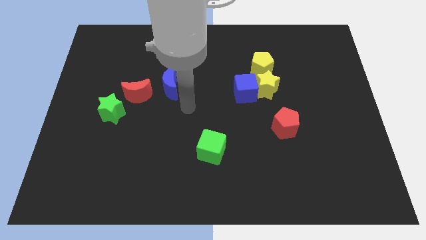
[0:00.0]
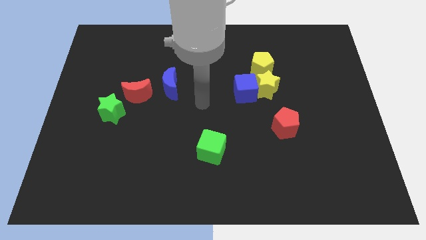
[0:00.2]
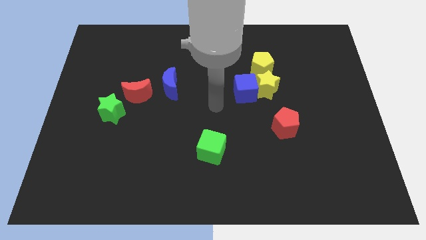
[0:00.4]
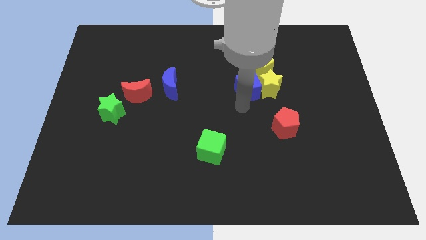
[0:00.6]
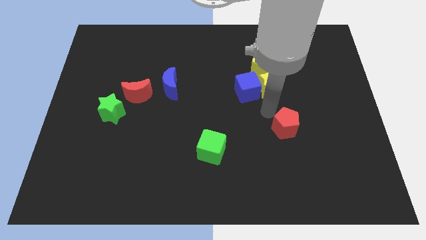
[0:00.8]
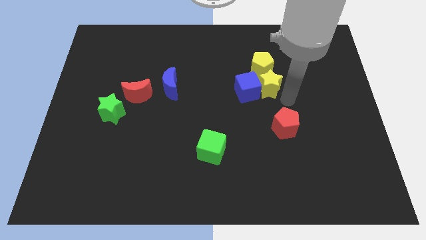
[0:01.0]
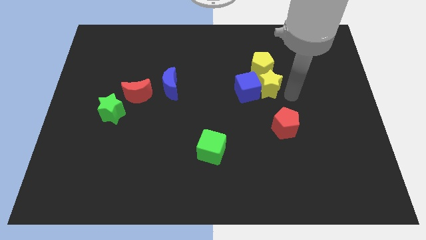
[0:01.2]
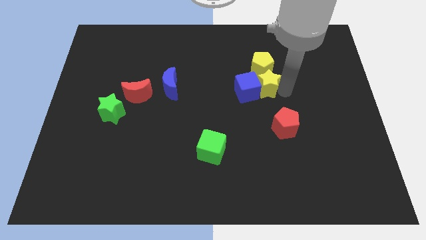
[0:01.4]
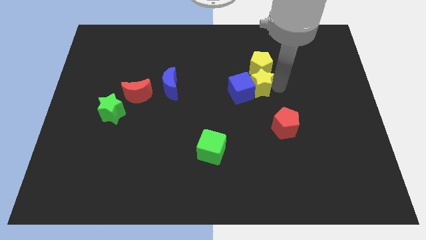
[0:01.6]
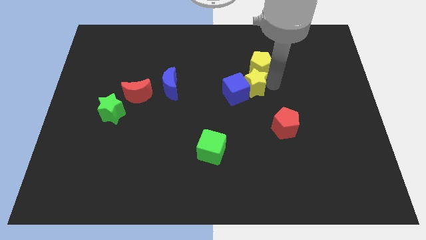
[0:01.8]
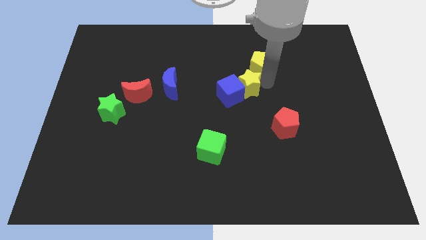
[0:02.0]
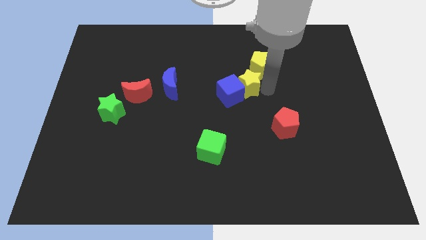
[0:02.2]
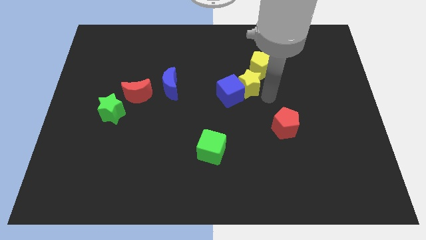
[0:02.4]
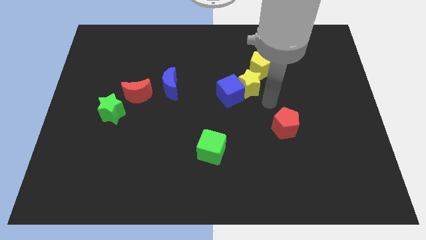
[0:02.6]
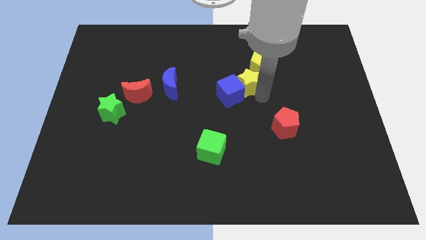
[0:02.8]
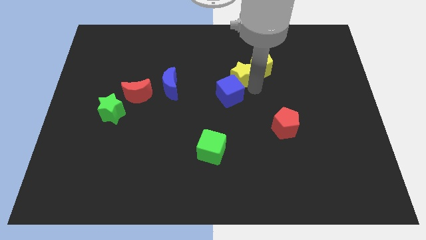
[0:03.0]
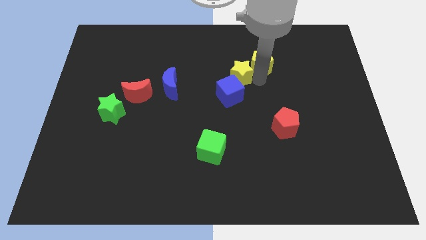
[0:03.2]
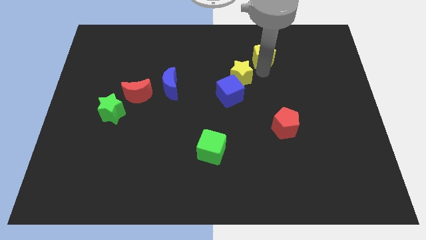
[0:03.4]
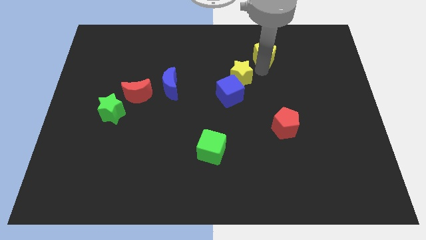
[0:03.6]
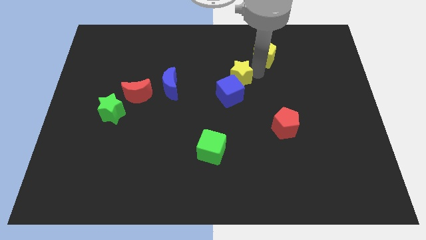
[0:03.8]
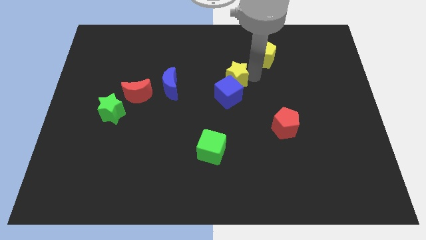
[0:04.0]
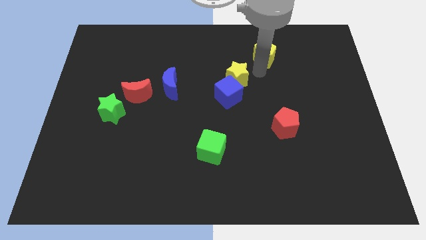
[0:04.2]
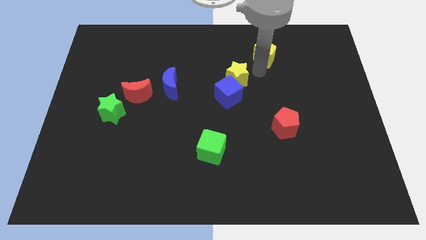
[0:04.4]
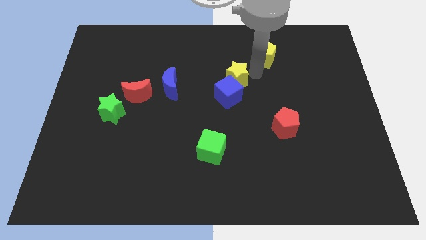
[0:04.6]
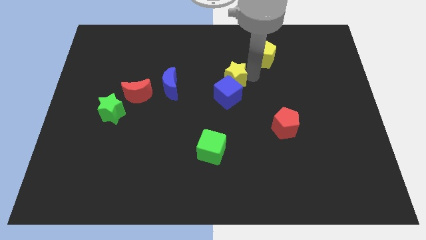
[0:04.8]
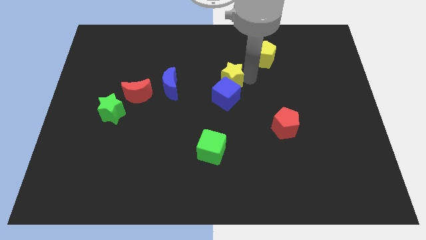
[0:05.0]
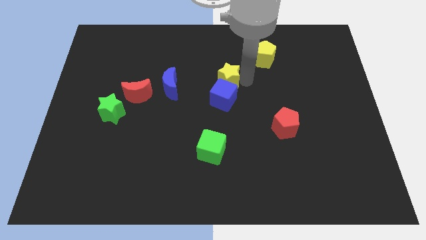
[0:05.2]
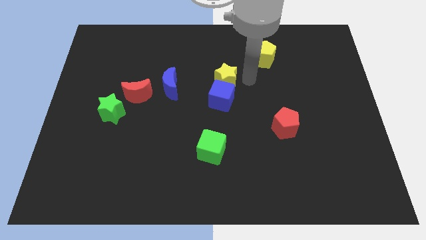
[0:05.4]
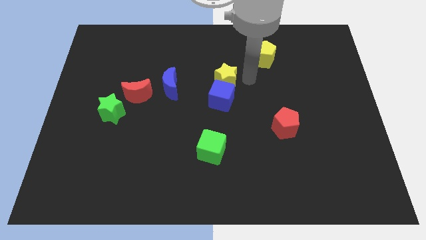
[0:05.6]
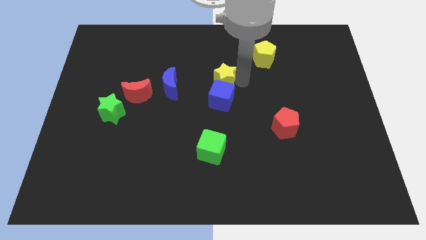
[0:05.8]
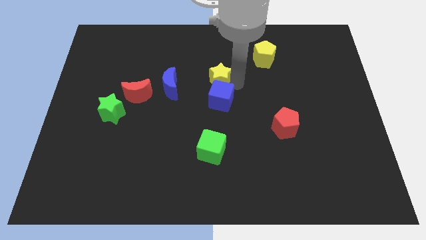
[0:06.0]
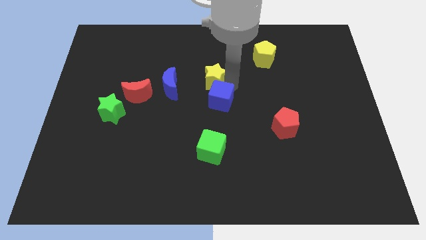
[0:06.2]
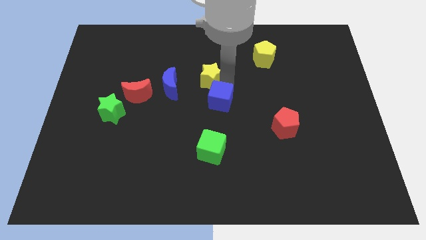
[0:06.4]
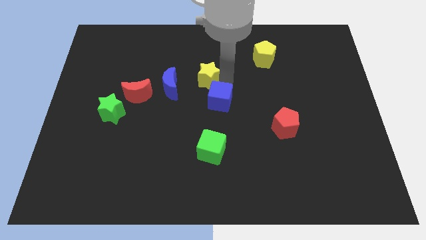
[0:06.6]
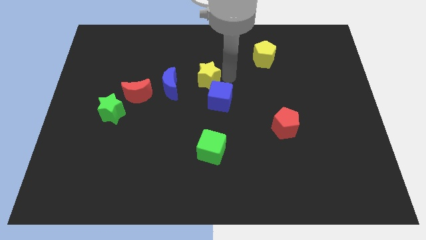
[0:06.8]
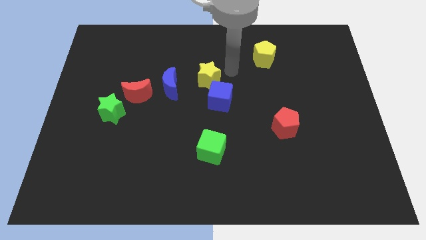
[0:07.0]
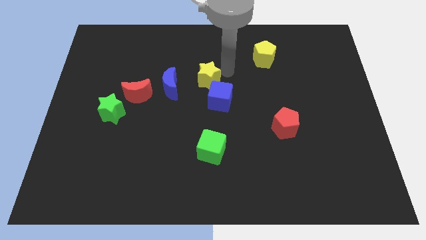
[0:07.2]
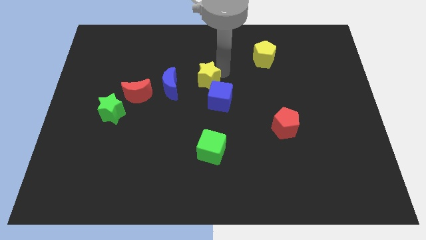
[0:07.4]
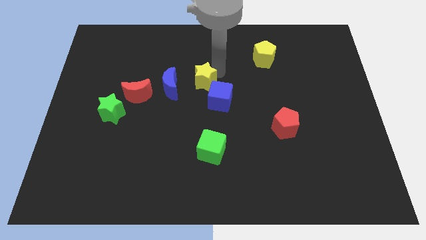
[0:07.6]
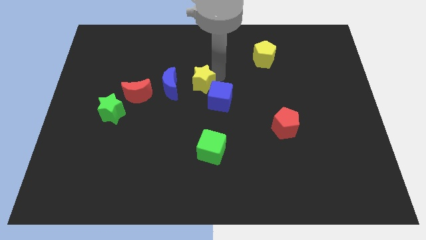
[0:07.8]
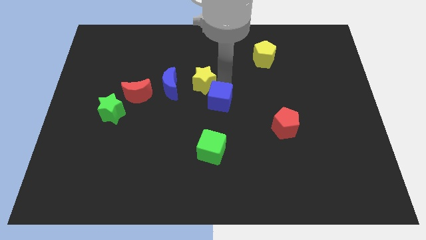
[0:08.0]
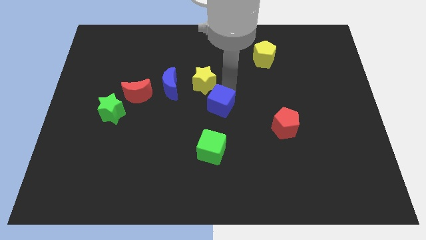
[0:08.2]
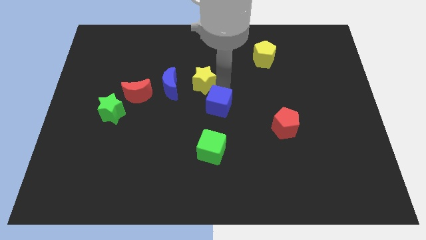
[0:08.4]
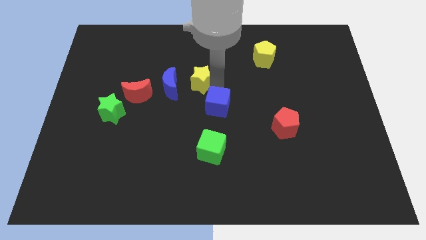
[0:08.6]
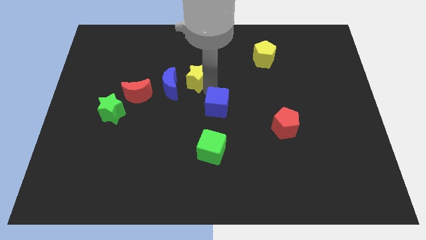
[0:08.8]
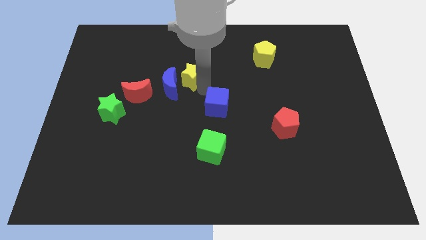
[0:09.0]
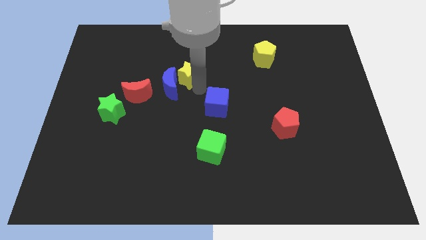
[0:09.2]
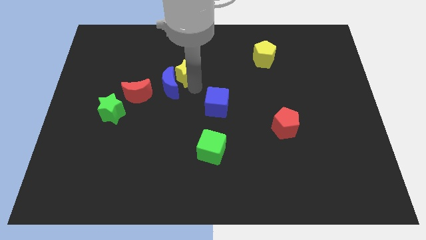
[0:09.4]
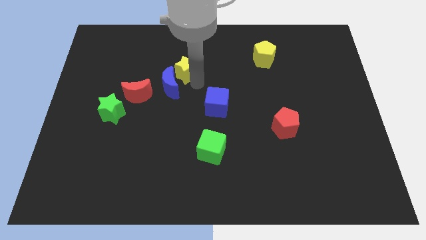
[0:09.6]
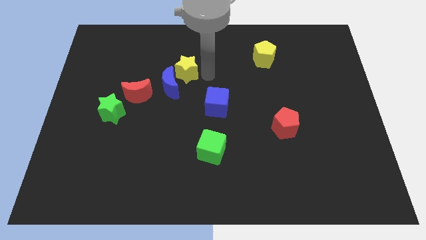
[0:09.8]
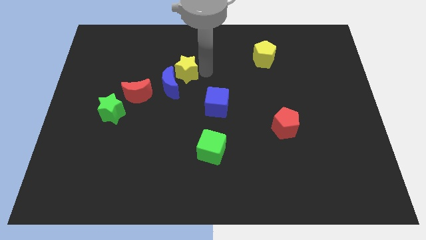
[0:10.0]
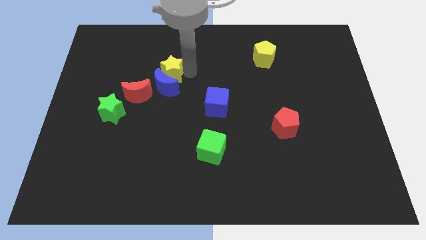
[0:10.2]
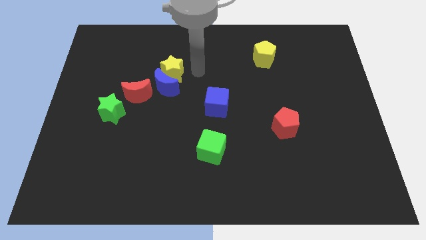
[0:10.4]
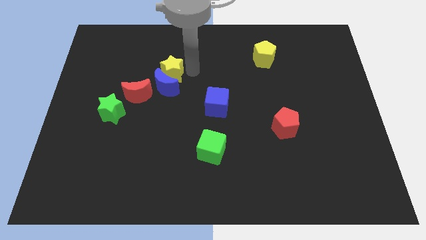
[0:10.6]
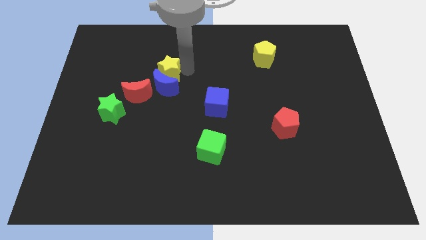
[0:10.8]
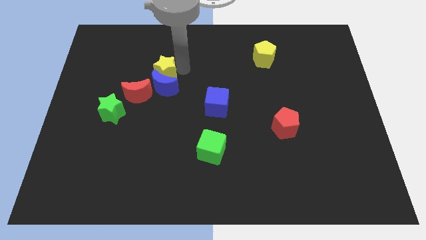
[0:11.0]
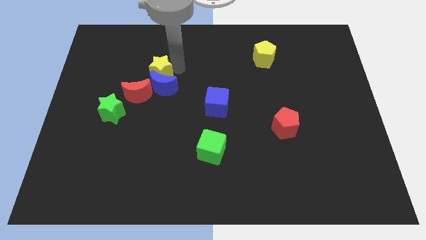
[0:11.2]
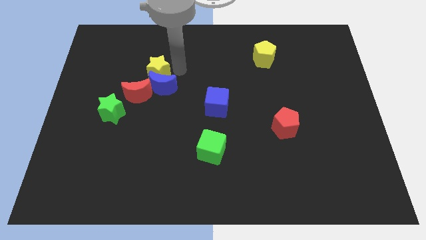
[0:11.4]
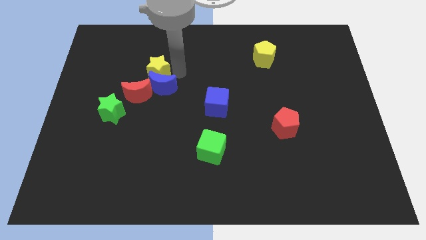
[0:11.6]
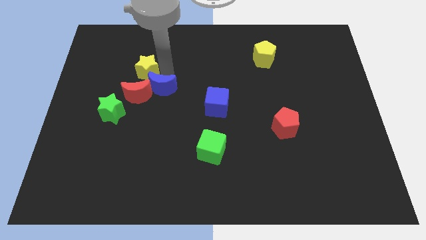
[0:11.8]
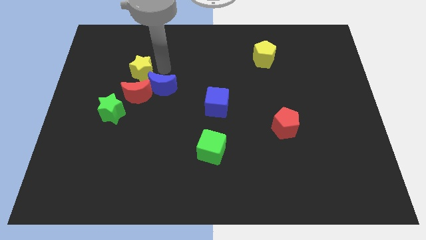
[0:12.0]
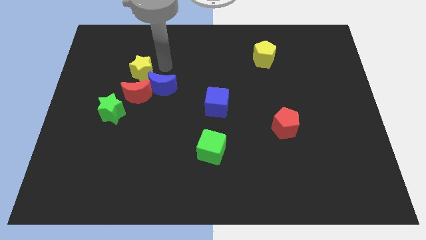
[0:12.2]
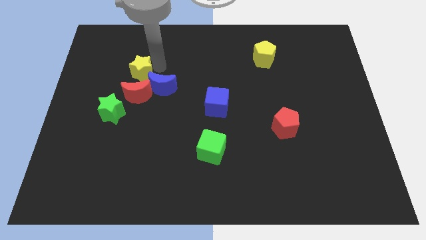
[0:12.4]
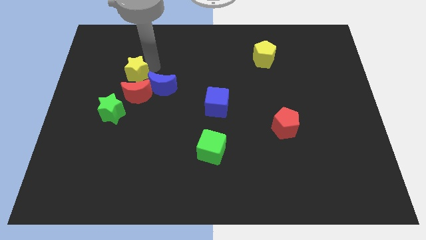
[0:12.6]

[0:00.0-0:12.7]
slide the yellow star to the top side of the green star

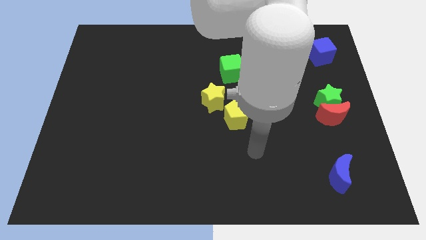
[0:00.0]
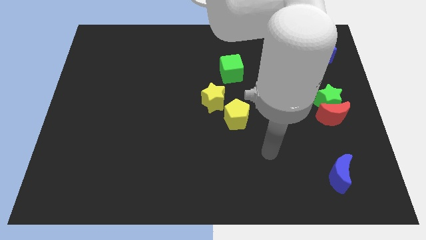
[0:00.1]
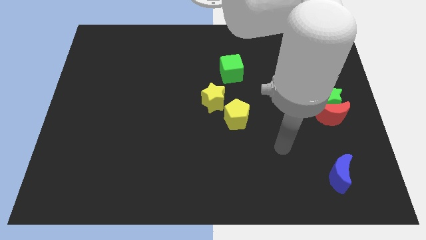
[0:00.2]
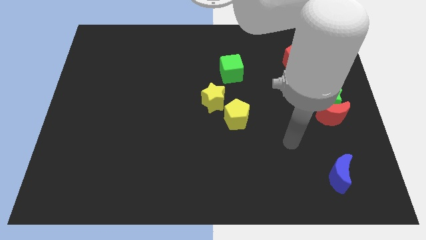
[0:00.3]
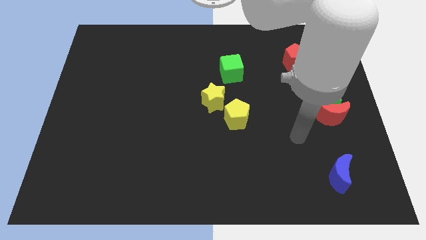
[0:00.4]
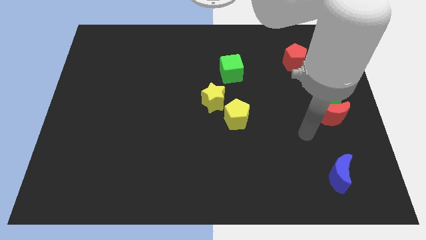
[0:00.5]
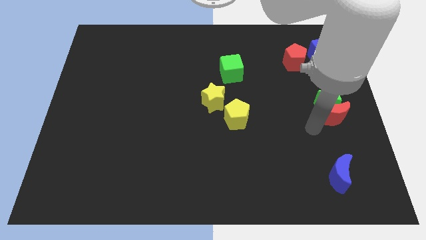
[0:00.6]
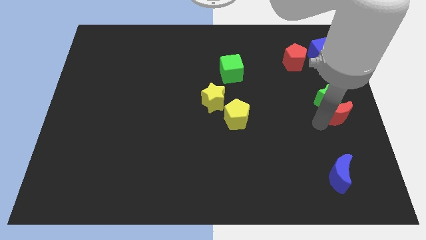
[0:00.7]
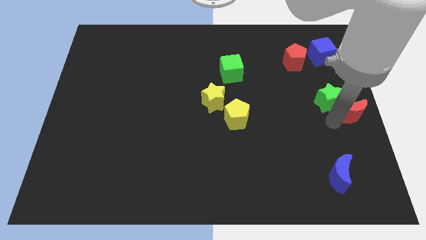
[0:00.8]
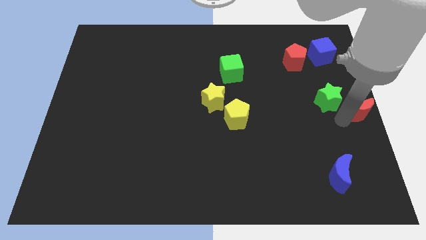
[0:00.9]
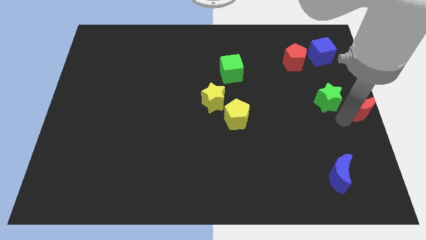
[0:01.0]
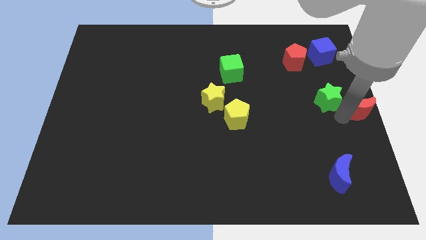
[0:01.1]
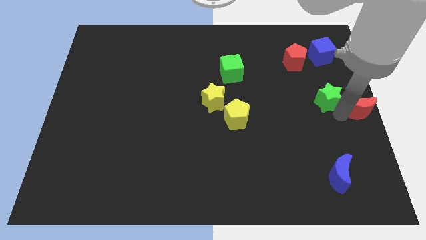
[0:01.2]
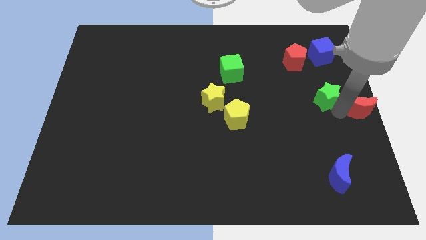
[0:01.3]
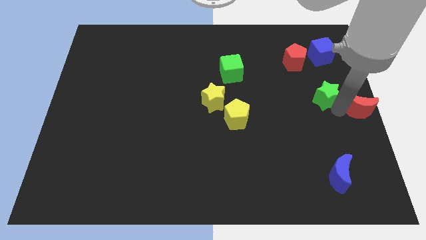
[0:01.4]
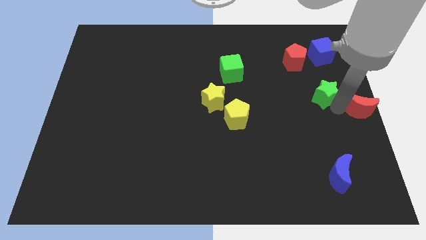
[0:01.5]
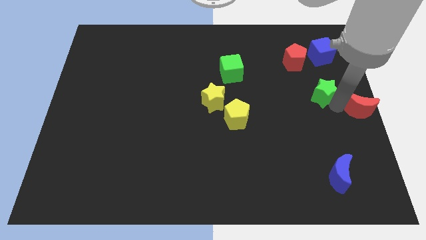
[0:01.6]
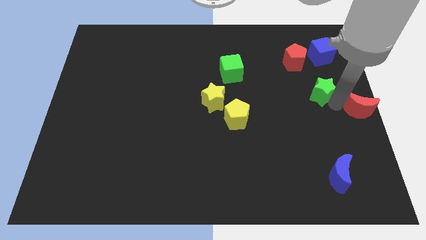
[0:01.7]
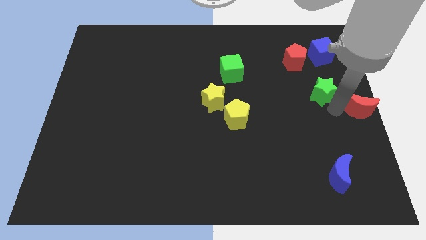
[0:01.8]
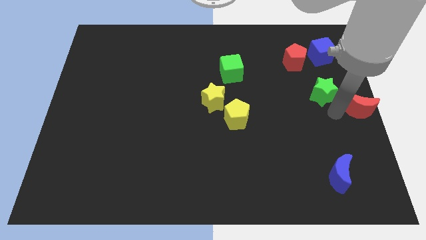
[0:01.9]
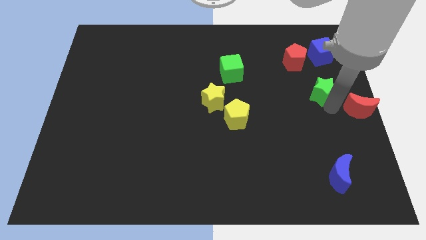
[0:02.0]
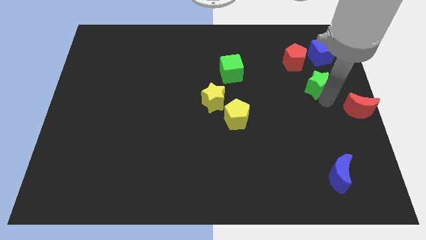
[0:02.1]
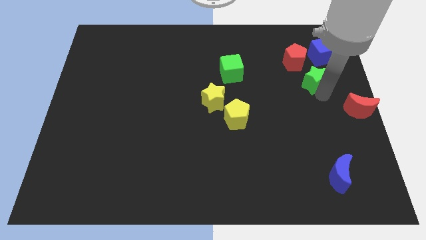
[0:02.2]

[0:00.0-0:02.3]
push the green star diagonally down and to the left of the blue cube
